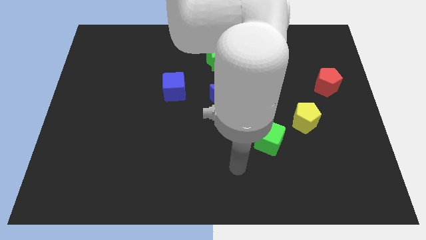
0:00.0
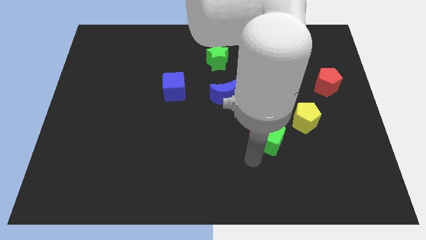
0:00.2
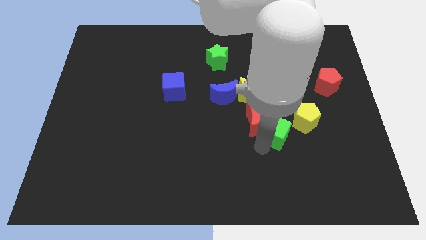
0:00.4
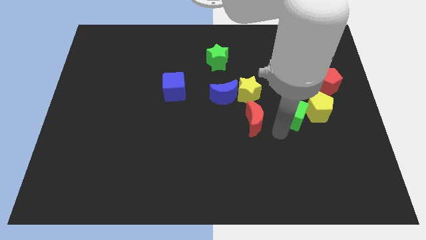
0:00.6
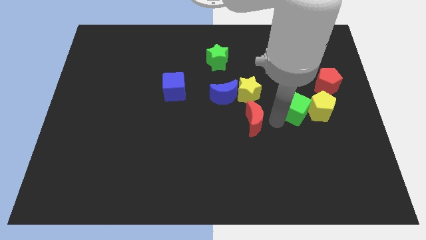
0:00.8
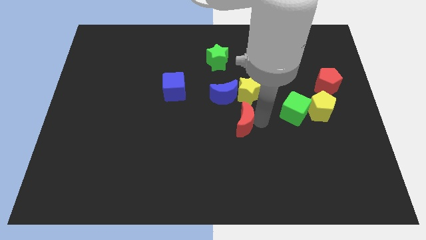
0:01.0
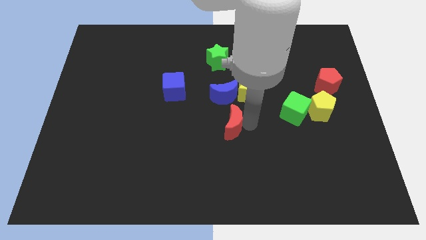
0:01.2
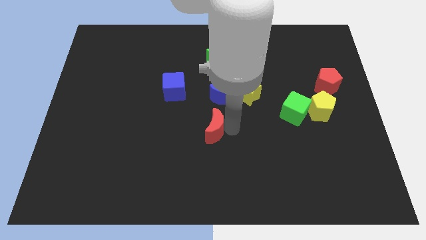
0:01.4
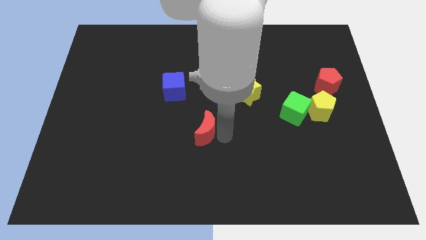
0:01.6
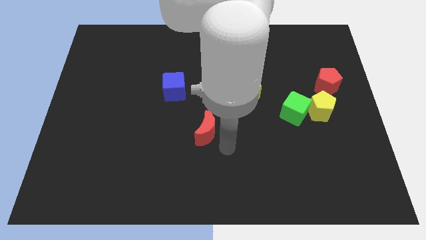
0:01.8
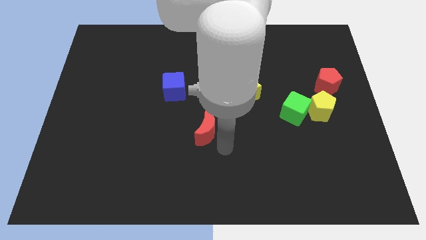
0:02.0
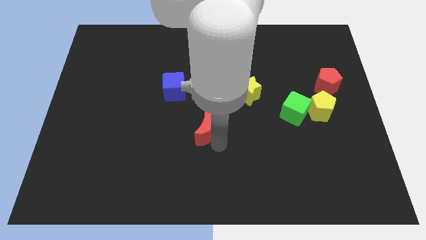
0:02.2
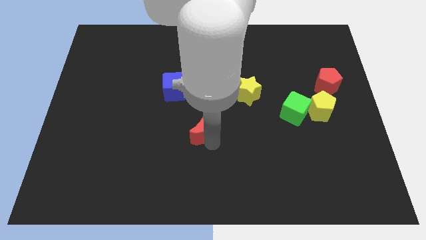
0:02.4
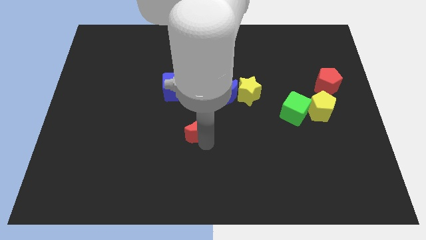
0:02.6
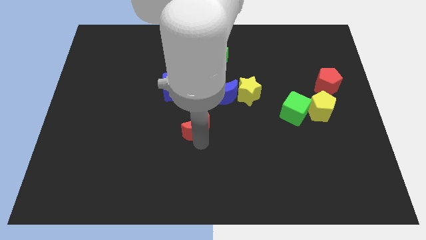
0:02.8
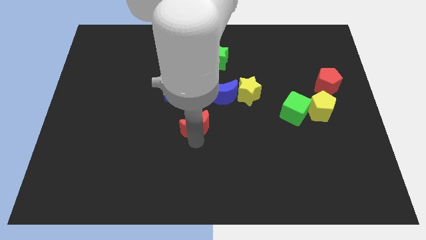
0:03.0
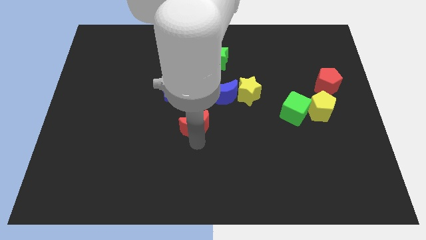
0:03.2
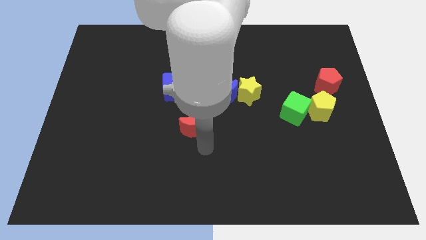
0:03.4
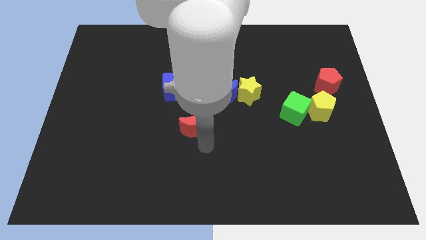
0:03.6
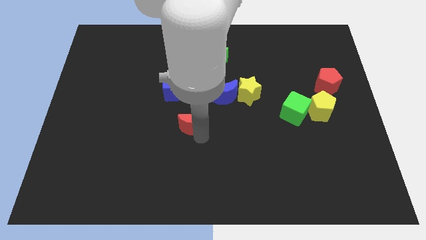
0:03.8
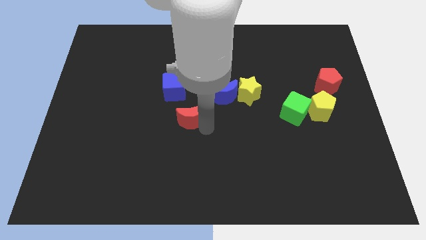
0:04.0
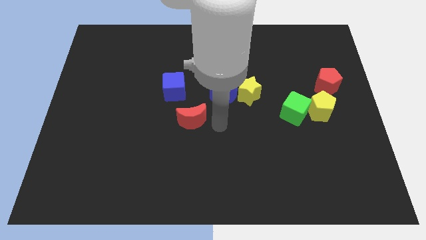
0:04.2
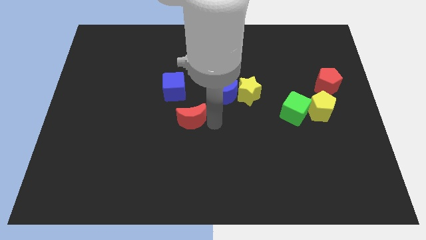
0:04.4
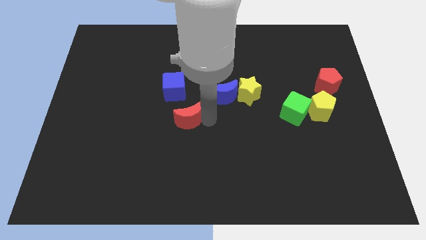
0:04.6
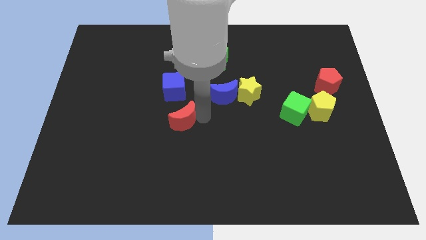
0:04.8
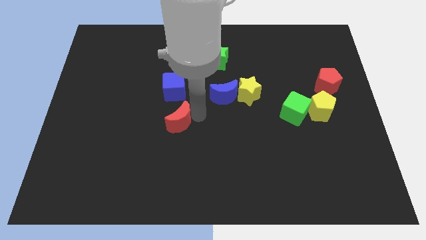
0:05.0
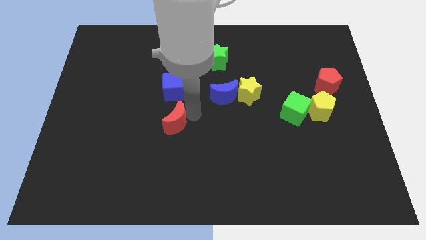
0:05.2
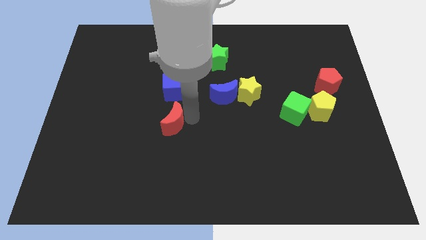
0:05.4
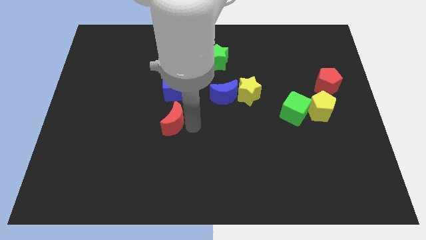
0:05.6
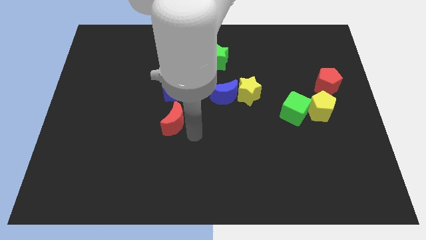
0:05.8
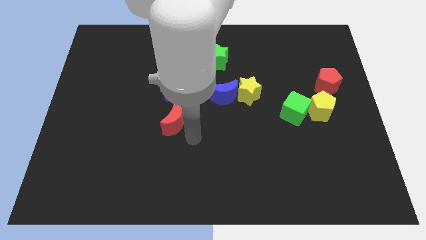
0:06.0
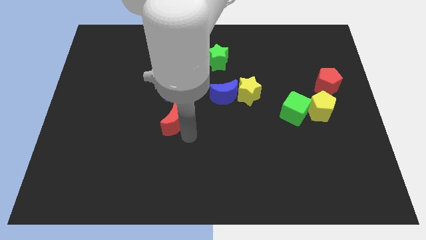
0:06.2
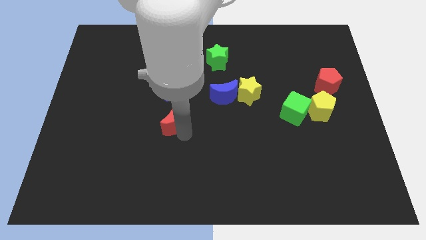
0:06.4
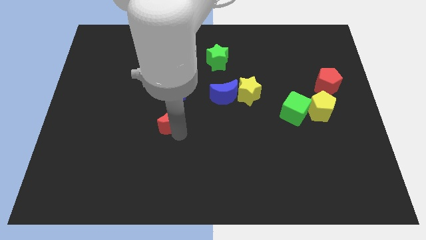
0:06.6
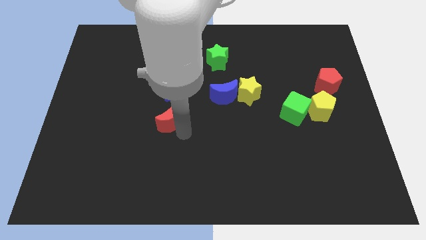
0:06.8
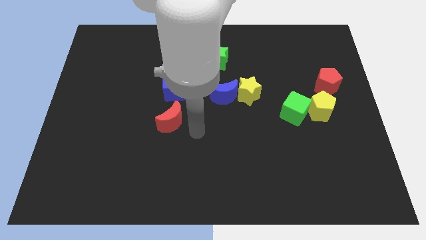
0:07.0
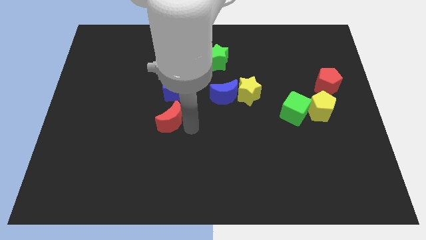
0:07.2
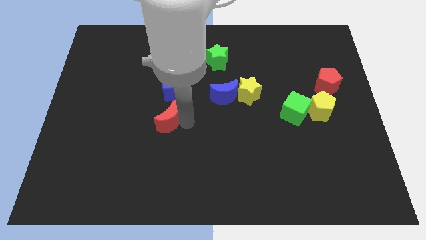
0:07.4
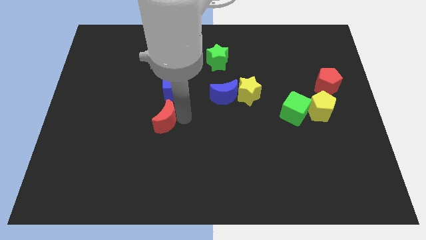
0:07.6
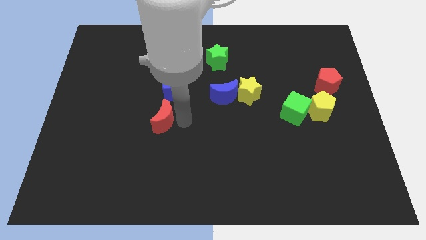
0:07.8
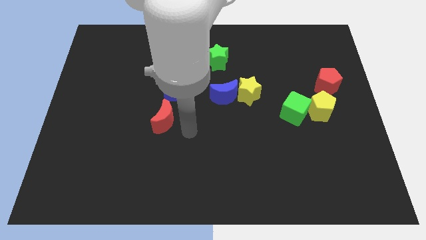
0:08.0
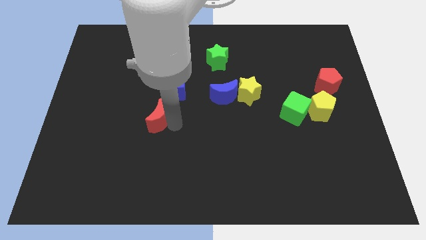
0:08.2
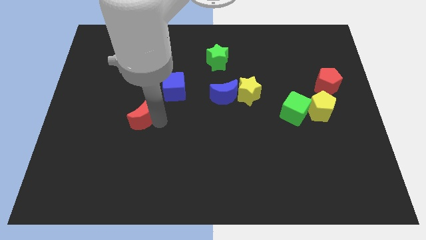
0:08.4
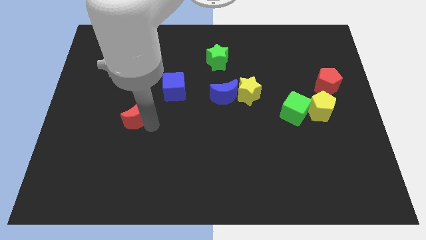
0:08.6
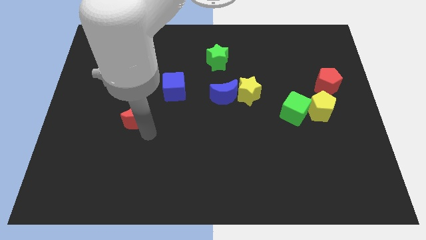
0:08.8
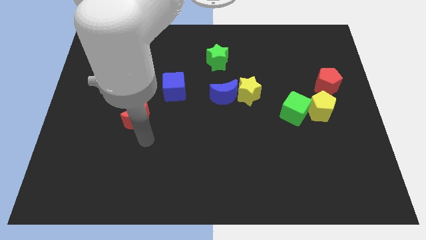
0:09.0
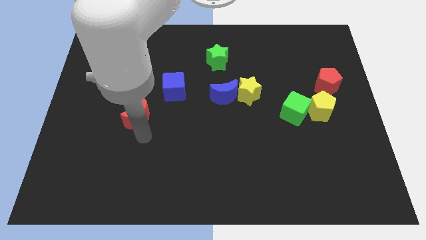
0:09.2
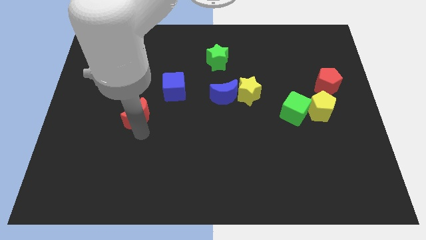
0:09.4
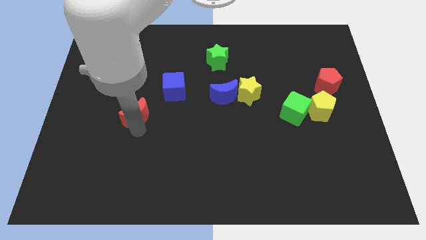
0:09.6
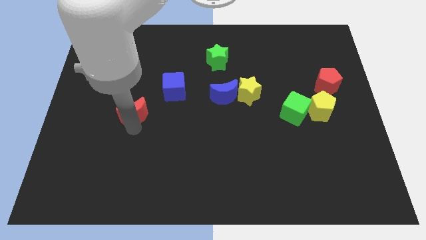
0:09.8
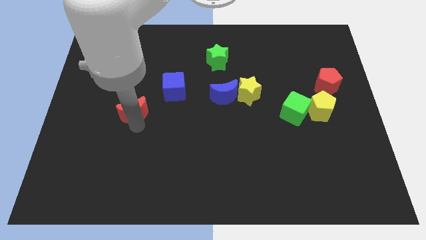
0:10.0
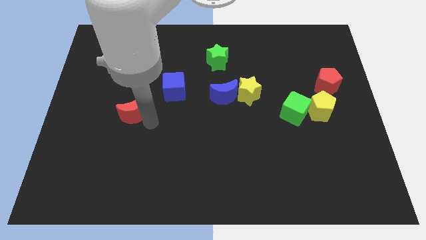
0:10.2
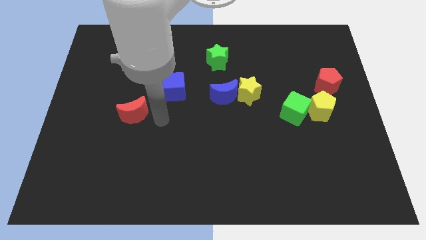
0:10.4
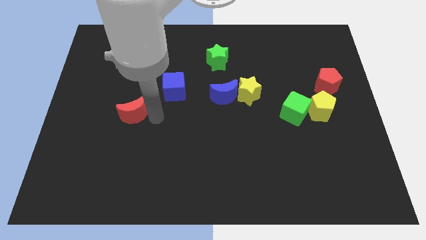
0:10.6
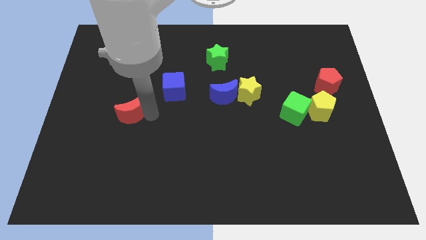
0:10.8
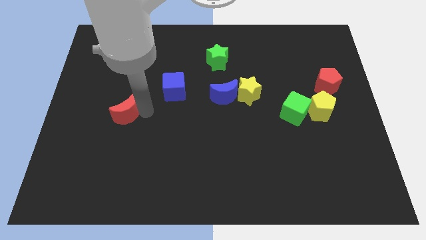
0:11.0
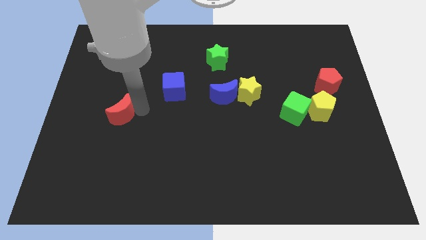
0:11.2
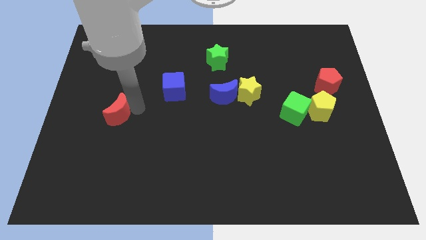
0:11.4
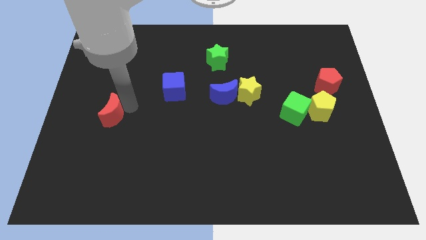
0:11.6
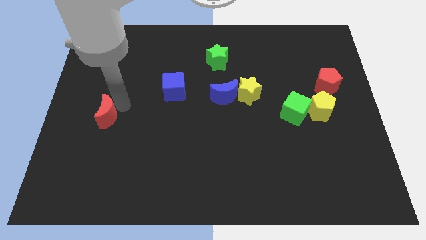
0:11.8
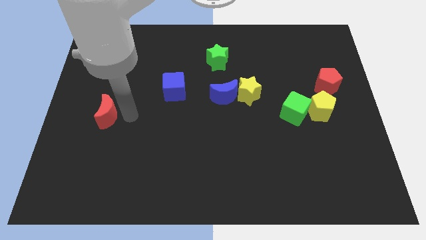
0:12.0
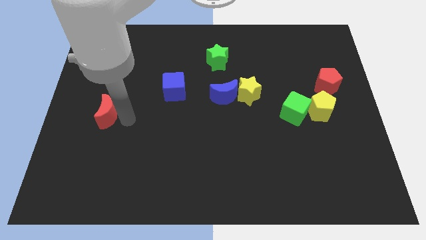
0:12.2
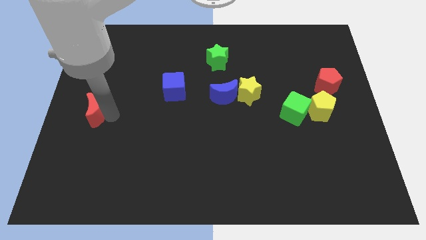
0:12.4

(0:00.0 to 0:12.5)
slide the red moon to the left side
